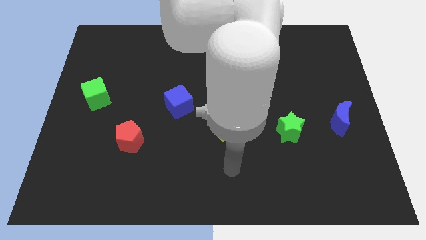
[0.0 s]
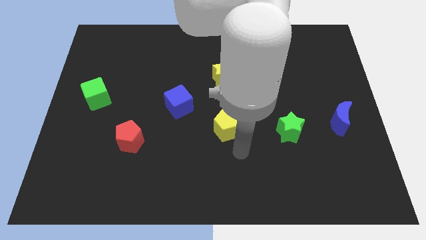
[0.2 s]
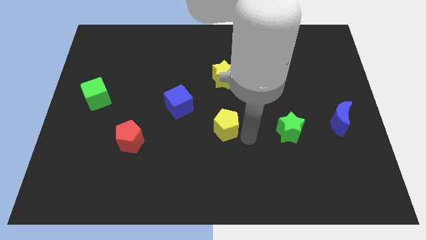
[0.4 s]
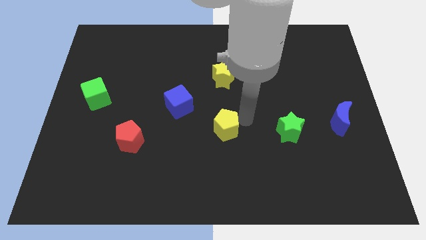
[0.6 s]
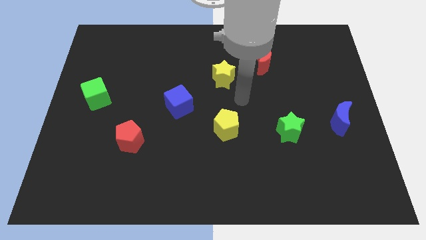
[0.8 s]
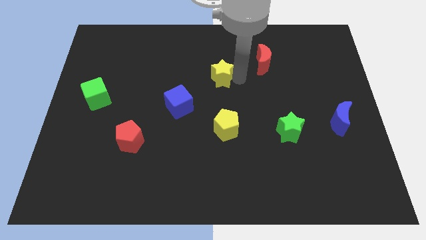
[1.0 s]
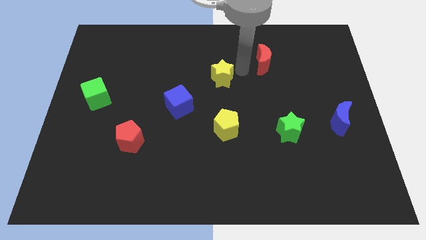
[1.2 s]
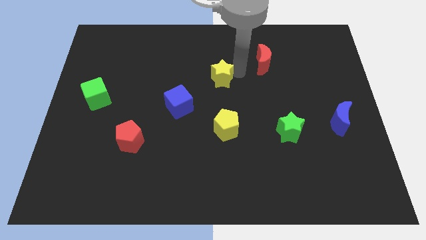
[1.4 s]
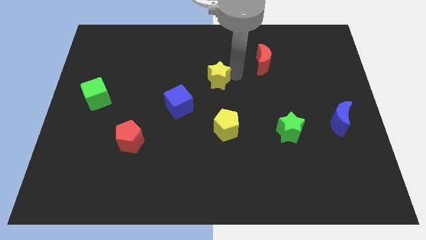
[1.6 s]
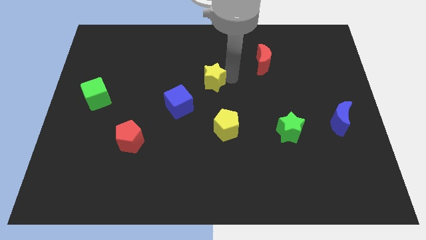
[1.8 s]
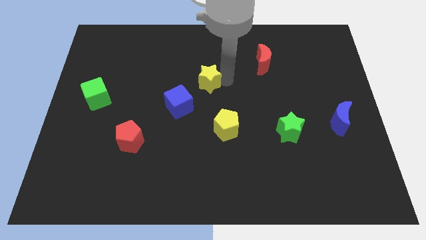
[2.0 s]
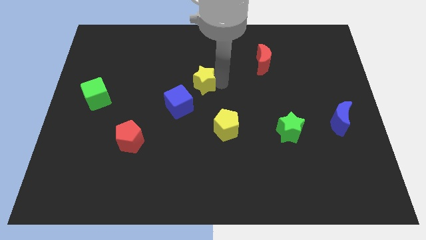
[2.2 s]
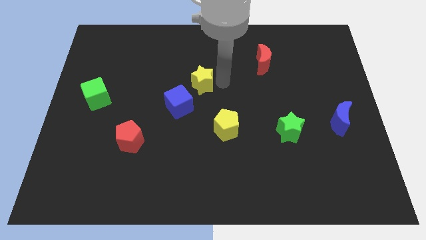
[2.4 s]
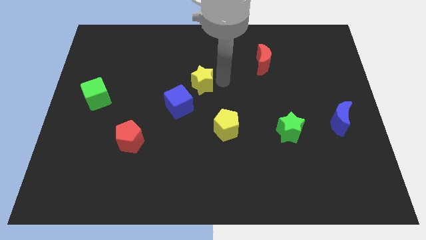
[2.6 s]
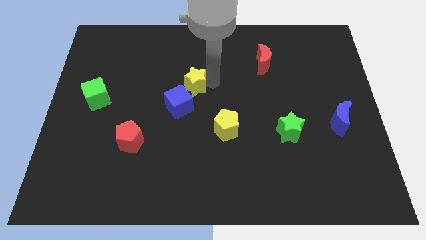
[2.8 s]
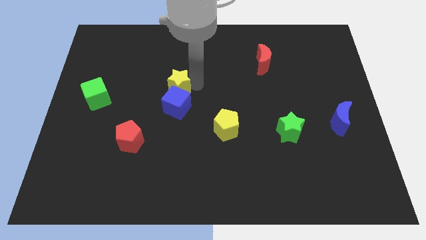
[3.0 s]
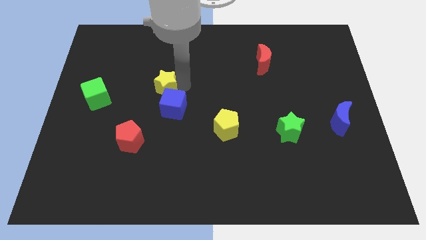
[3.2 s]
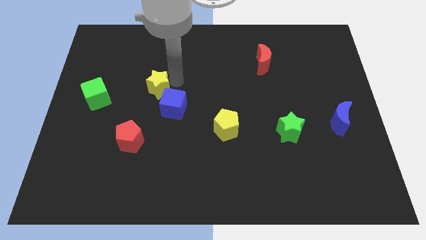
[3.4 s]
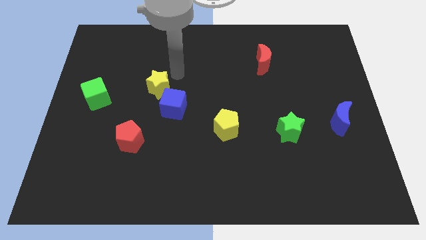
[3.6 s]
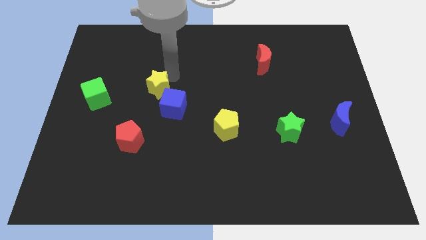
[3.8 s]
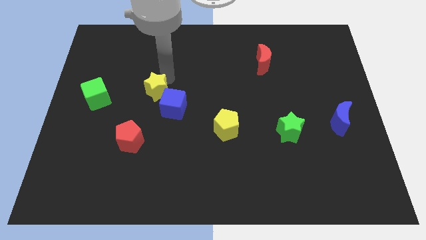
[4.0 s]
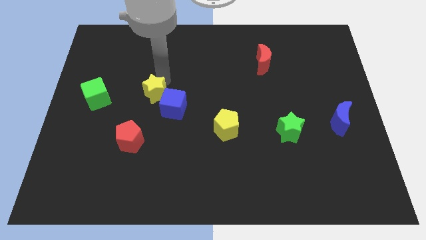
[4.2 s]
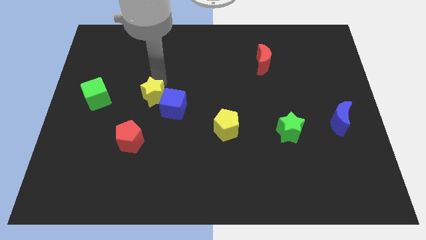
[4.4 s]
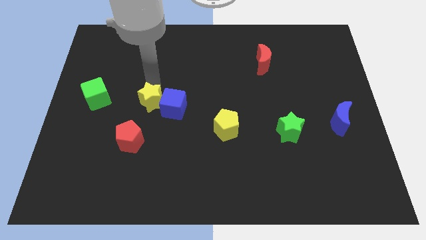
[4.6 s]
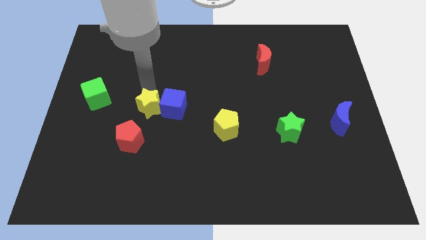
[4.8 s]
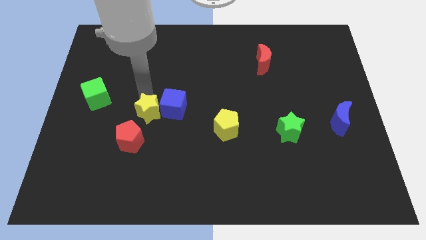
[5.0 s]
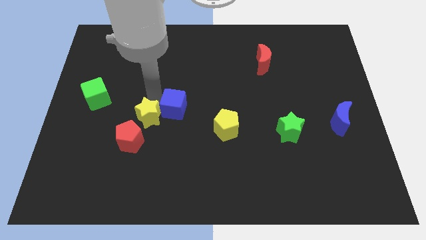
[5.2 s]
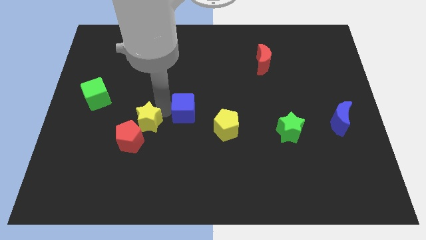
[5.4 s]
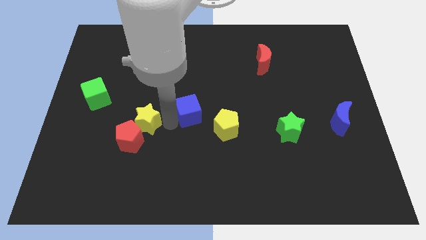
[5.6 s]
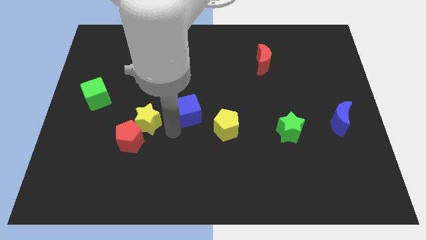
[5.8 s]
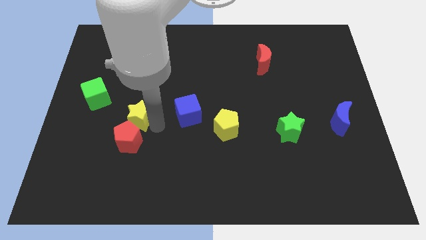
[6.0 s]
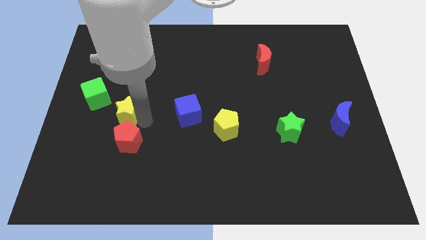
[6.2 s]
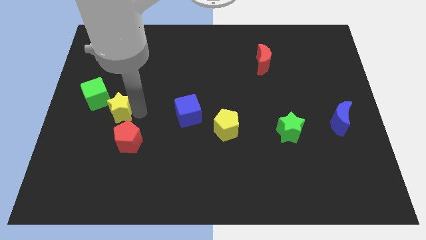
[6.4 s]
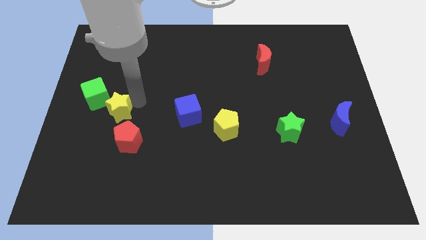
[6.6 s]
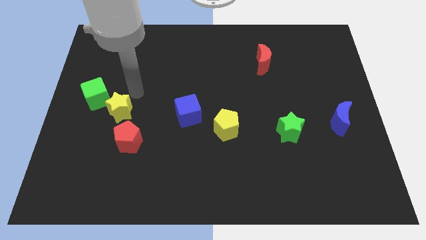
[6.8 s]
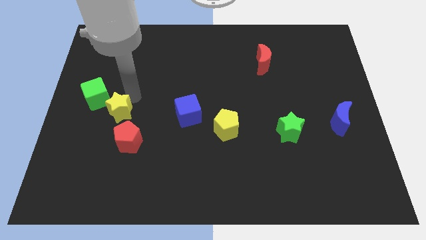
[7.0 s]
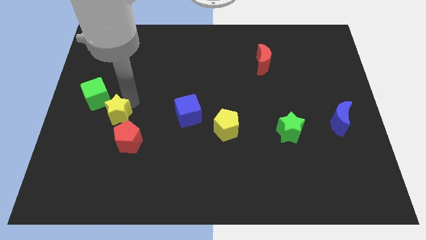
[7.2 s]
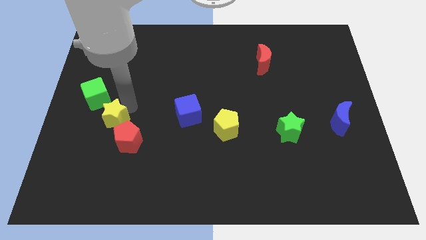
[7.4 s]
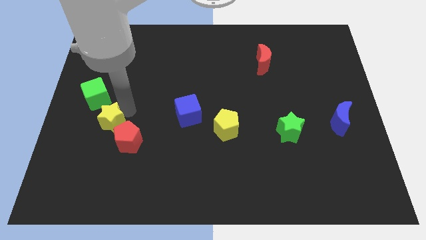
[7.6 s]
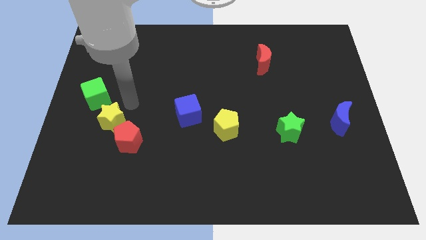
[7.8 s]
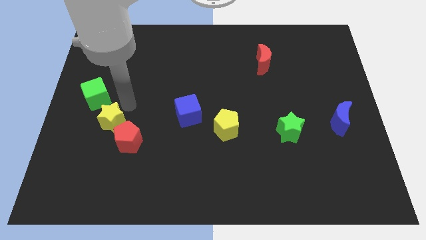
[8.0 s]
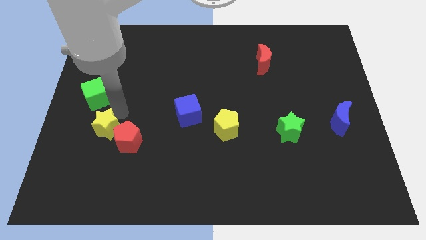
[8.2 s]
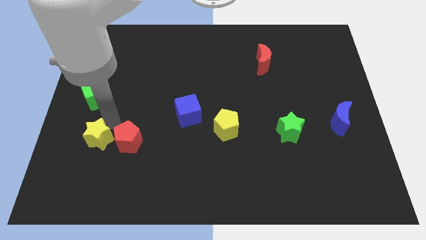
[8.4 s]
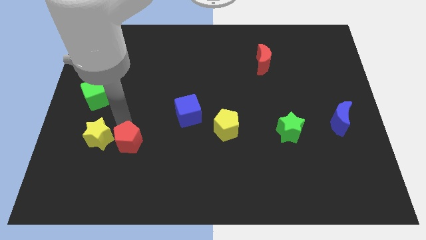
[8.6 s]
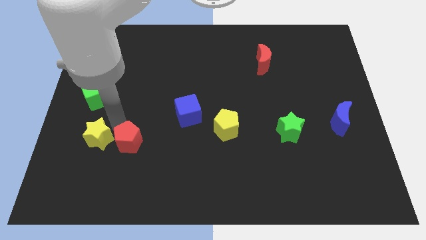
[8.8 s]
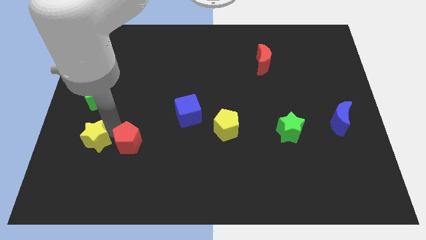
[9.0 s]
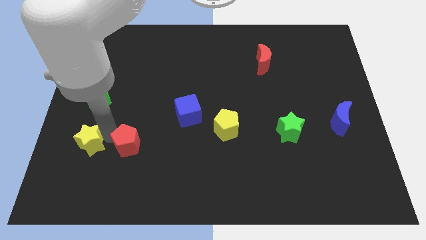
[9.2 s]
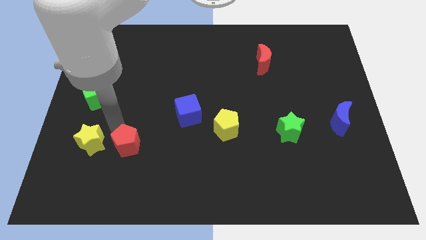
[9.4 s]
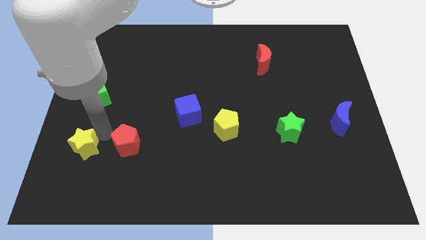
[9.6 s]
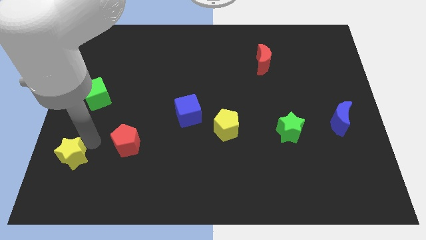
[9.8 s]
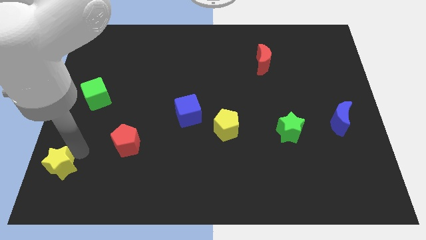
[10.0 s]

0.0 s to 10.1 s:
push the yellow star to the bottom left corner
